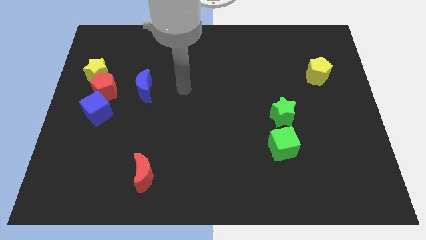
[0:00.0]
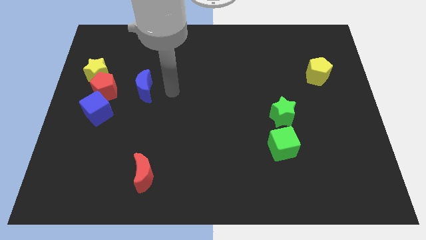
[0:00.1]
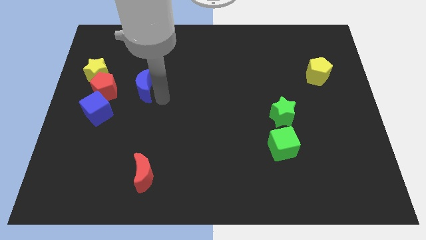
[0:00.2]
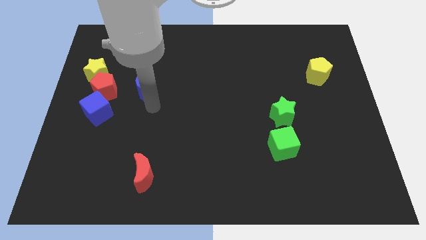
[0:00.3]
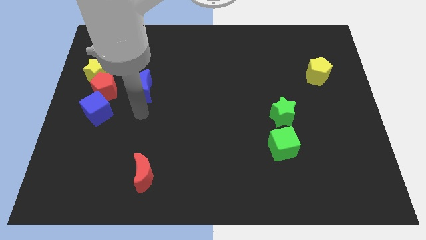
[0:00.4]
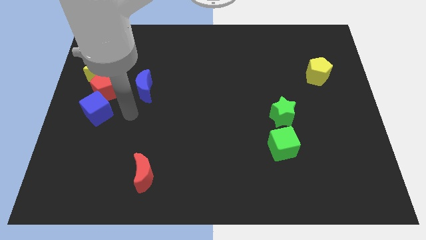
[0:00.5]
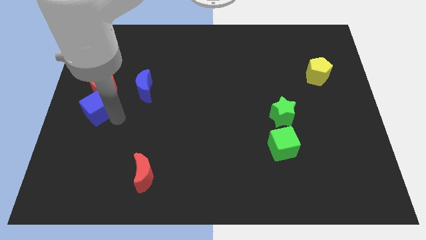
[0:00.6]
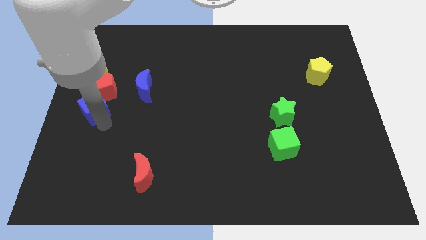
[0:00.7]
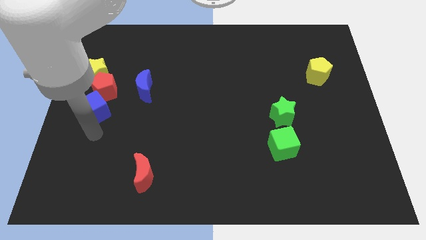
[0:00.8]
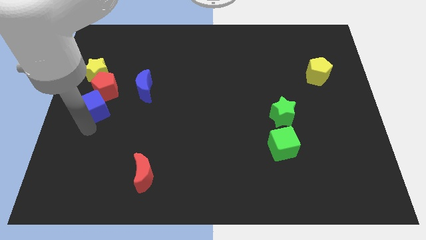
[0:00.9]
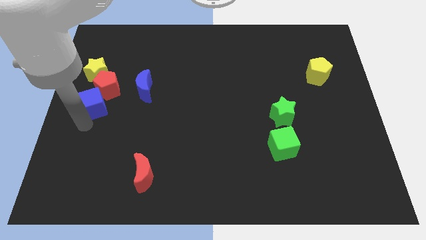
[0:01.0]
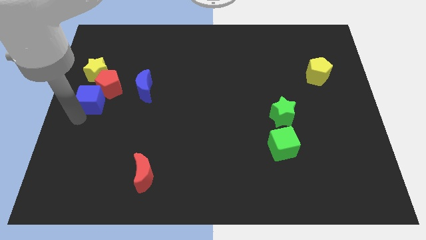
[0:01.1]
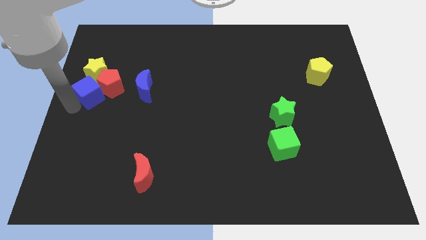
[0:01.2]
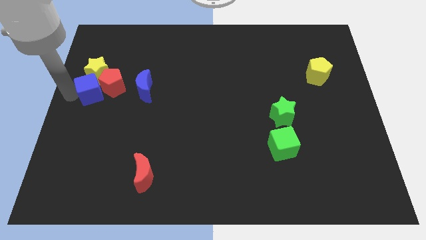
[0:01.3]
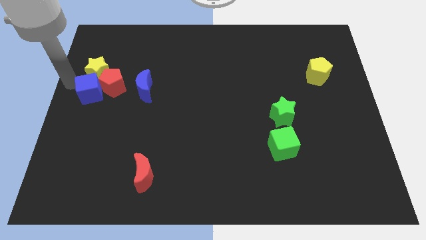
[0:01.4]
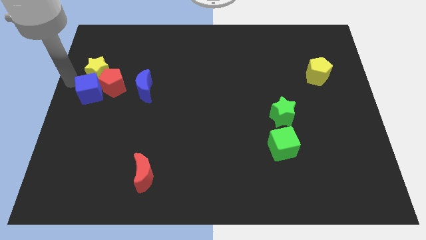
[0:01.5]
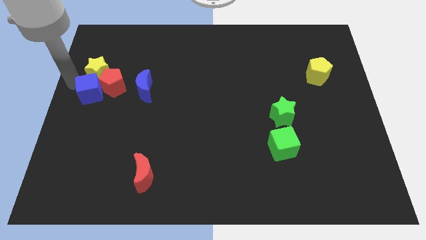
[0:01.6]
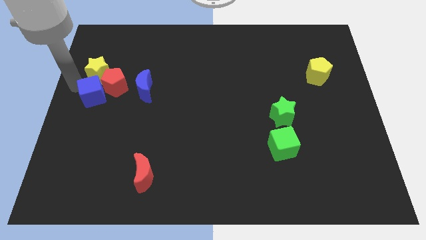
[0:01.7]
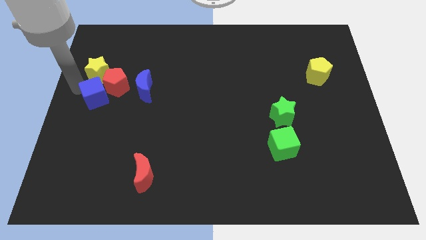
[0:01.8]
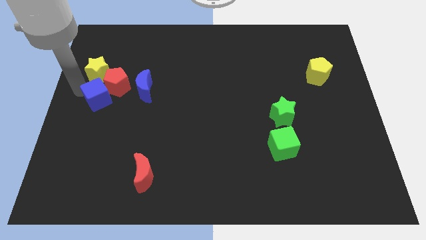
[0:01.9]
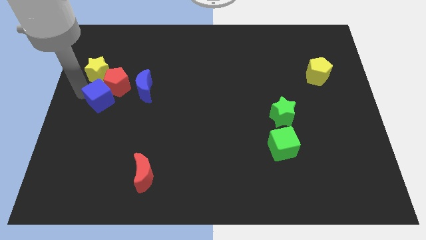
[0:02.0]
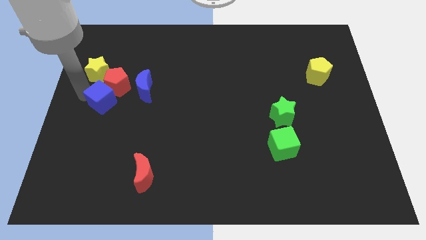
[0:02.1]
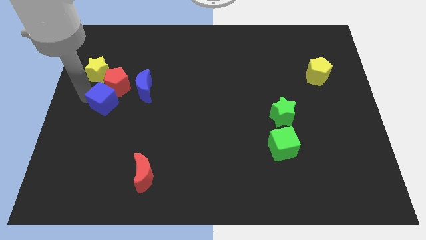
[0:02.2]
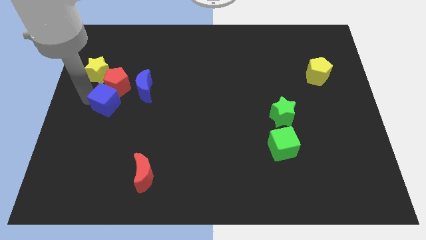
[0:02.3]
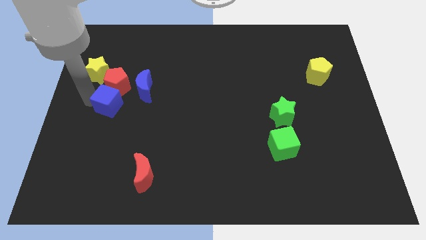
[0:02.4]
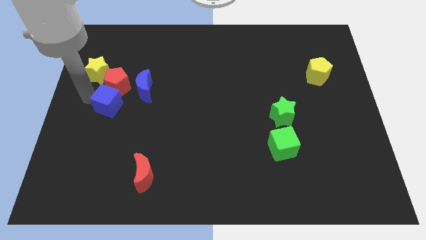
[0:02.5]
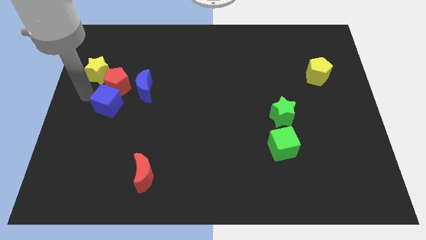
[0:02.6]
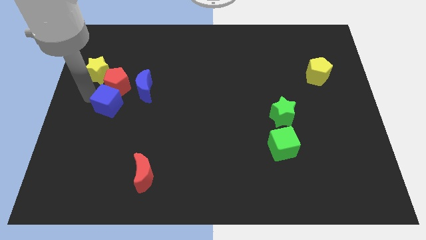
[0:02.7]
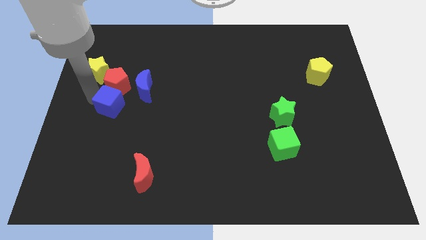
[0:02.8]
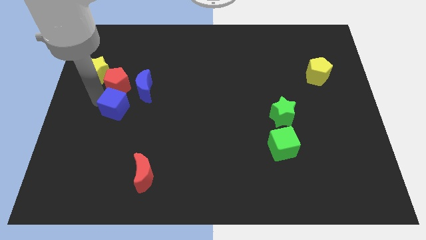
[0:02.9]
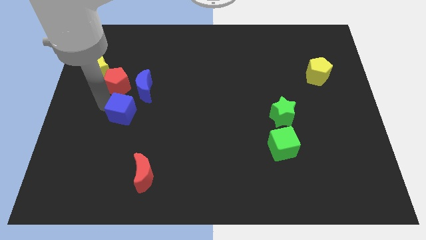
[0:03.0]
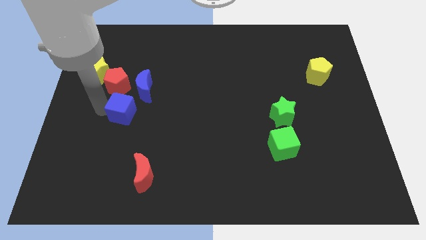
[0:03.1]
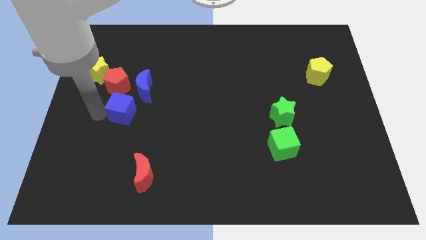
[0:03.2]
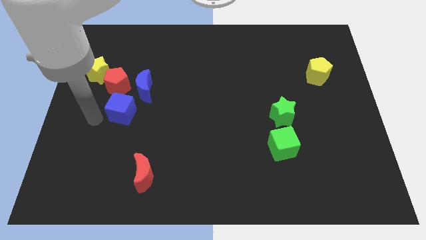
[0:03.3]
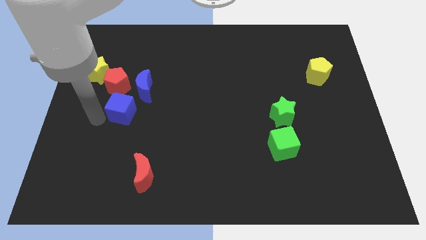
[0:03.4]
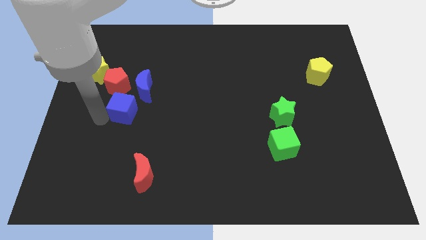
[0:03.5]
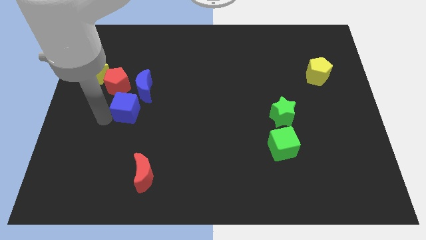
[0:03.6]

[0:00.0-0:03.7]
slide the blue cube somewhat right

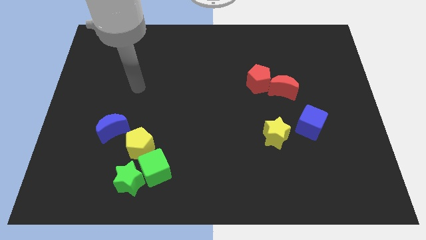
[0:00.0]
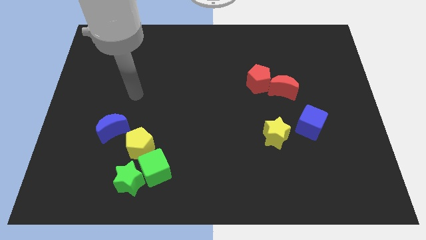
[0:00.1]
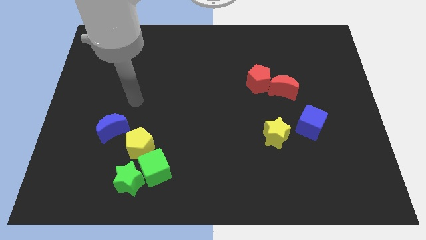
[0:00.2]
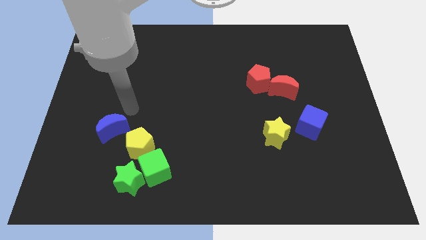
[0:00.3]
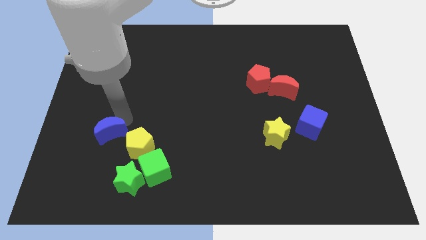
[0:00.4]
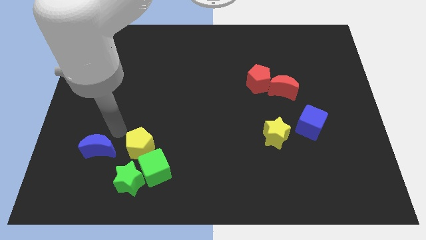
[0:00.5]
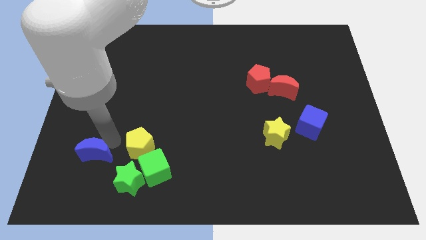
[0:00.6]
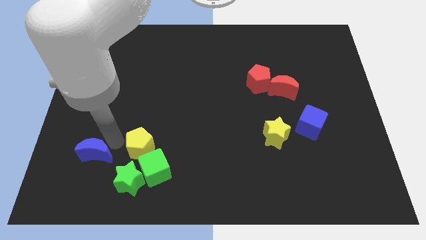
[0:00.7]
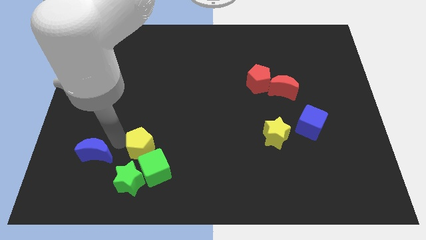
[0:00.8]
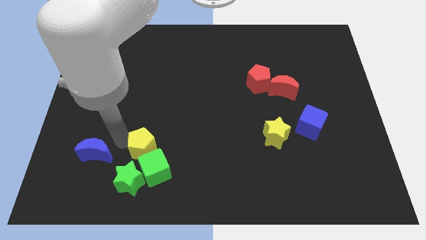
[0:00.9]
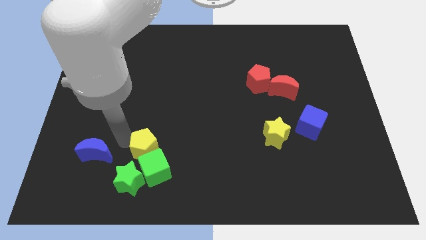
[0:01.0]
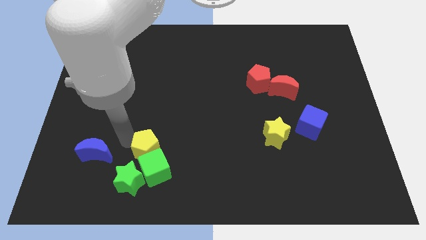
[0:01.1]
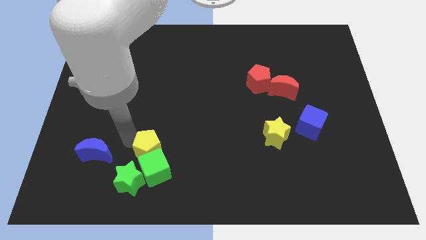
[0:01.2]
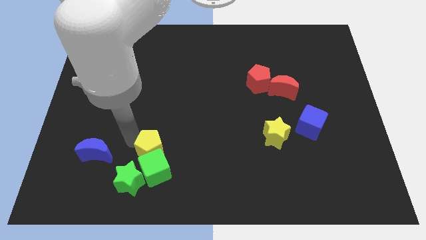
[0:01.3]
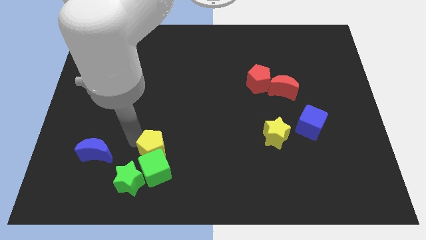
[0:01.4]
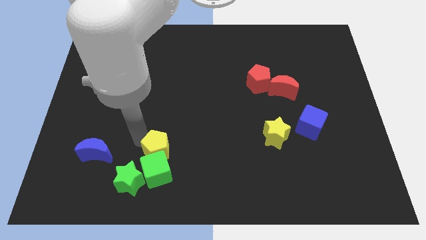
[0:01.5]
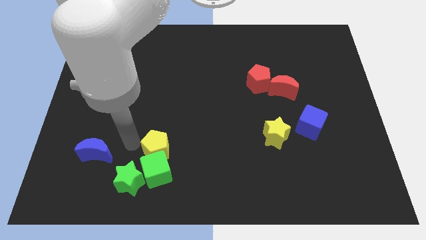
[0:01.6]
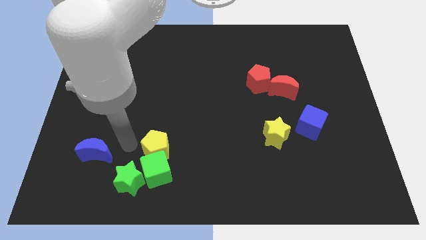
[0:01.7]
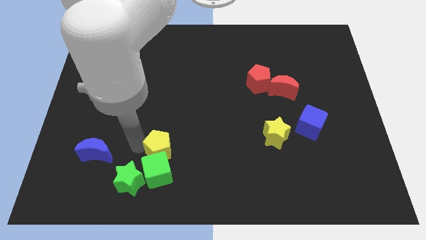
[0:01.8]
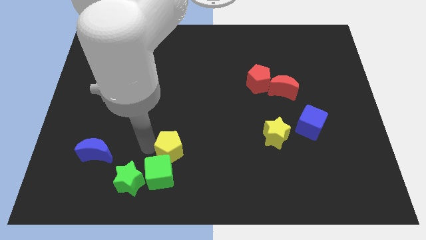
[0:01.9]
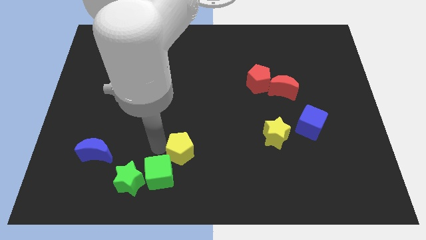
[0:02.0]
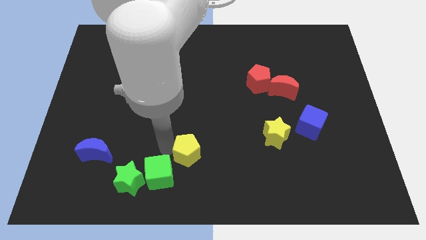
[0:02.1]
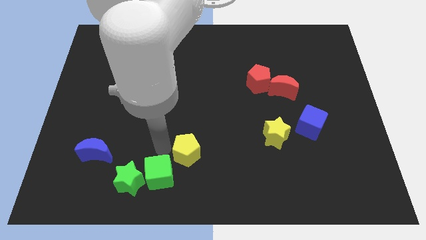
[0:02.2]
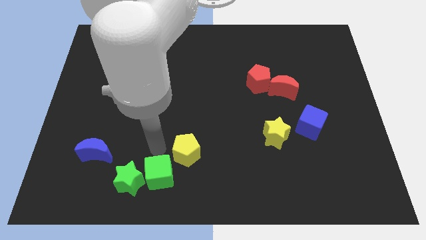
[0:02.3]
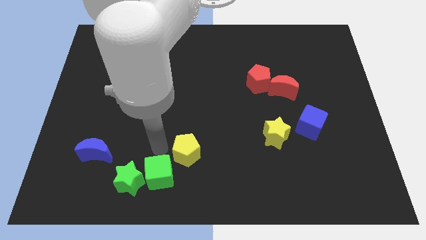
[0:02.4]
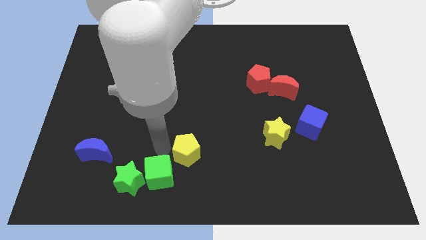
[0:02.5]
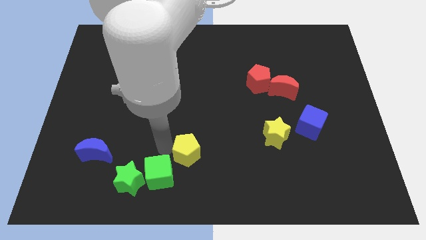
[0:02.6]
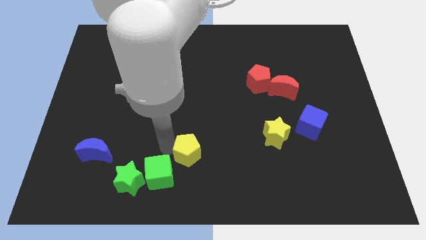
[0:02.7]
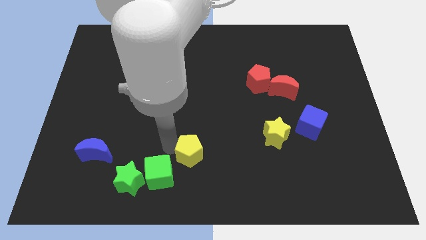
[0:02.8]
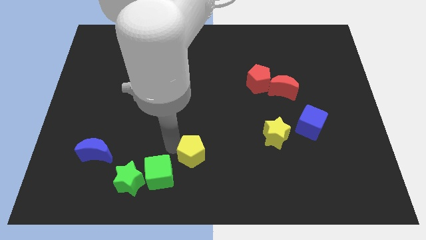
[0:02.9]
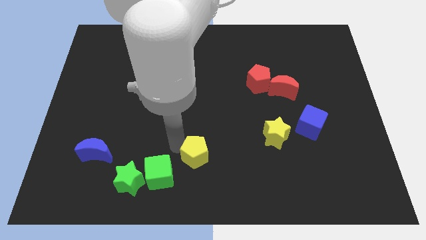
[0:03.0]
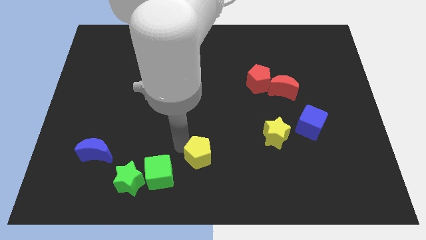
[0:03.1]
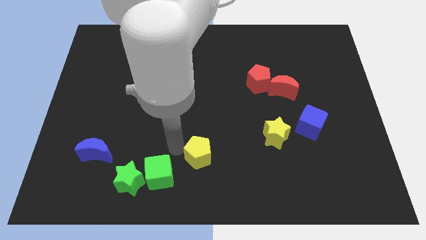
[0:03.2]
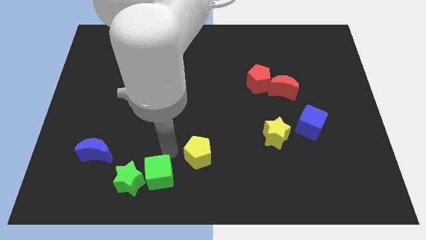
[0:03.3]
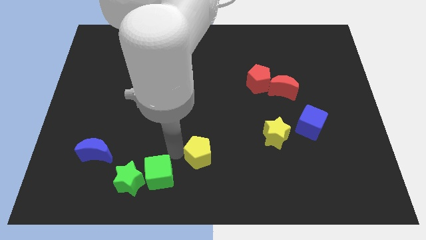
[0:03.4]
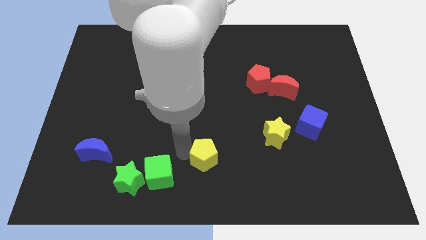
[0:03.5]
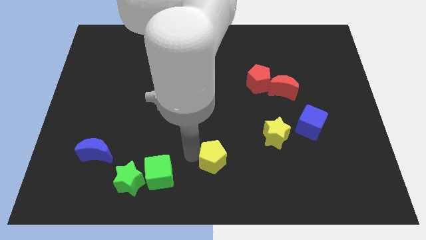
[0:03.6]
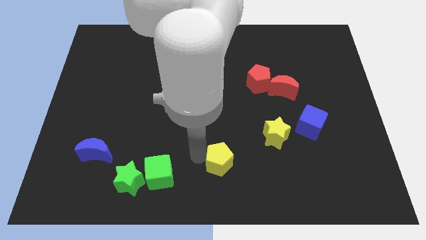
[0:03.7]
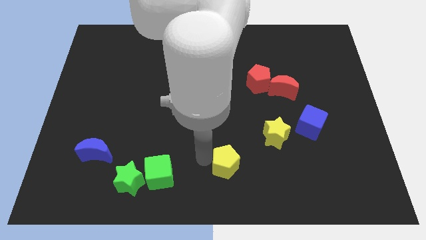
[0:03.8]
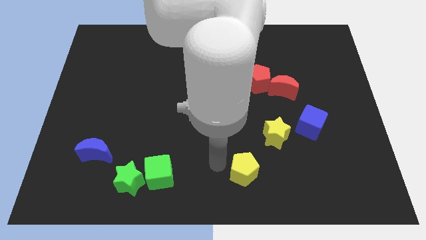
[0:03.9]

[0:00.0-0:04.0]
push the yellow pentagon to the right

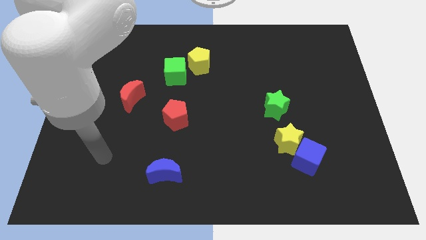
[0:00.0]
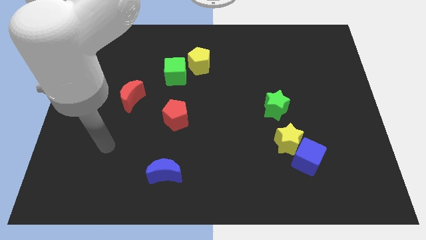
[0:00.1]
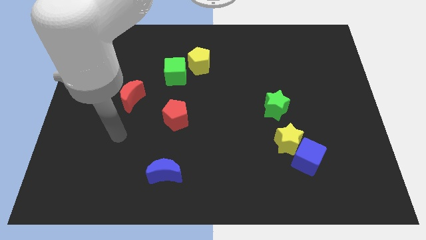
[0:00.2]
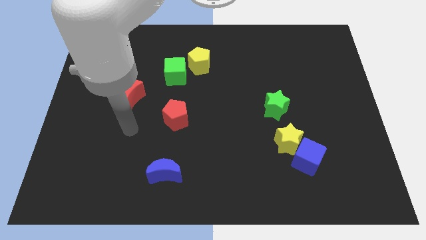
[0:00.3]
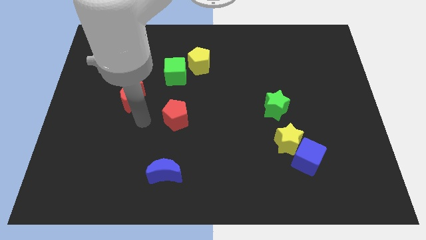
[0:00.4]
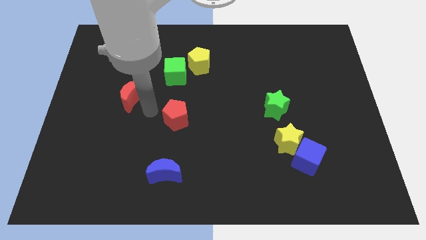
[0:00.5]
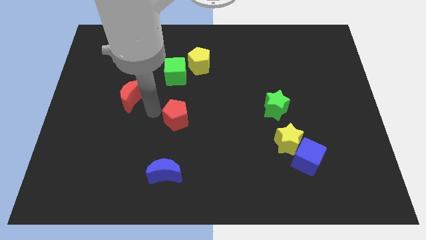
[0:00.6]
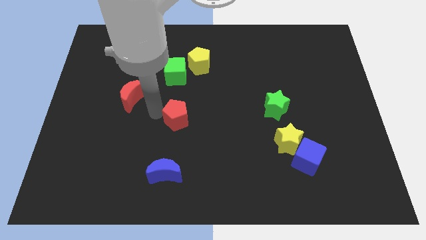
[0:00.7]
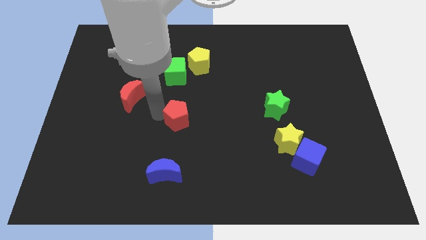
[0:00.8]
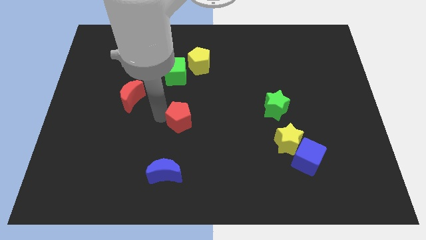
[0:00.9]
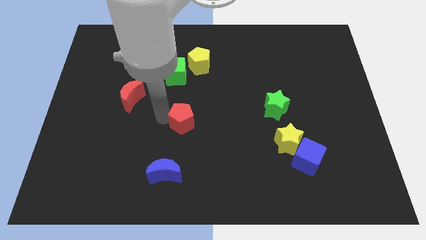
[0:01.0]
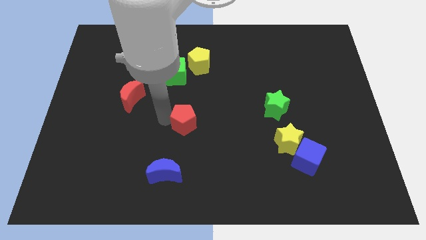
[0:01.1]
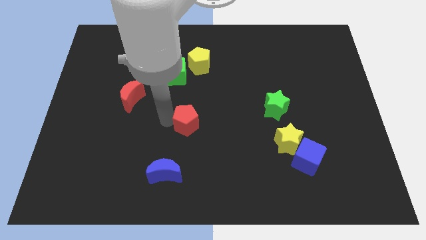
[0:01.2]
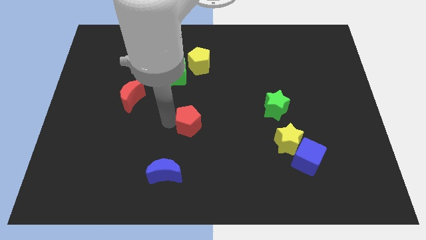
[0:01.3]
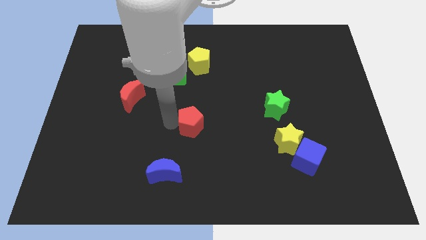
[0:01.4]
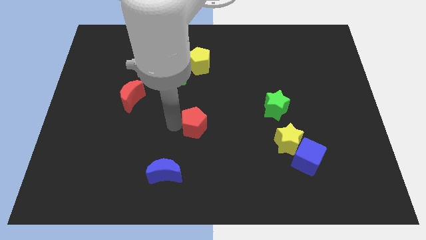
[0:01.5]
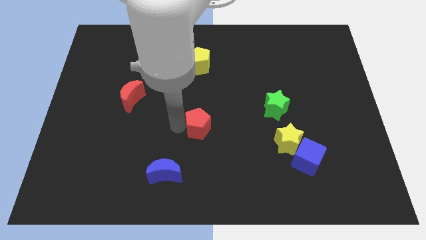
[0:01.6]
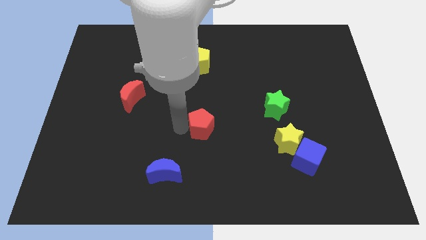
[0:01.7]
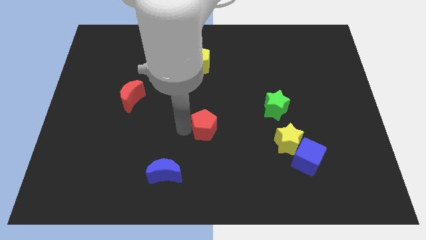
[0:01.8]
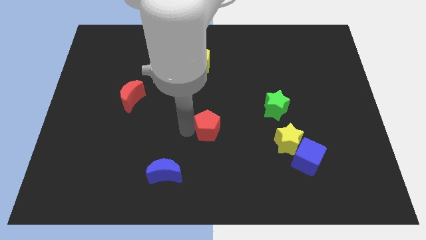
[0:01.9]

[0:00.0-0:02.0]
slide the red pentagon right somewhat
